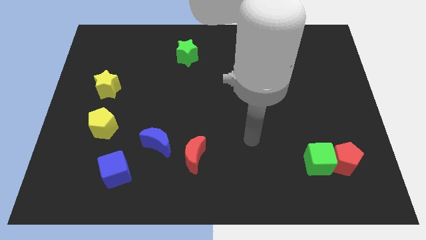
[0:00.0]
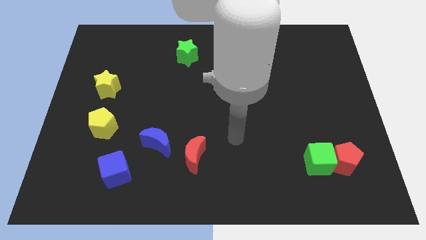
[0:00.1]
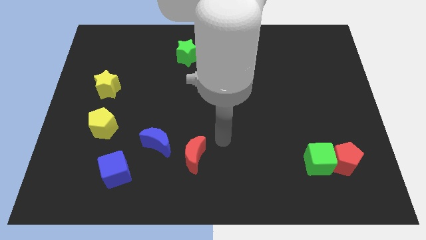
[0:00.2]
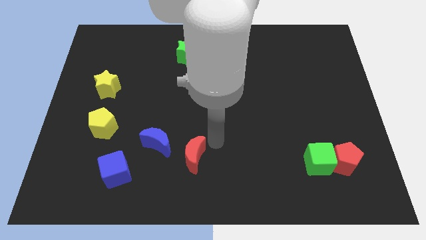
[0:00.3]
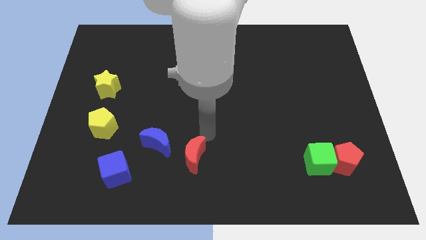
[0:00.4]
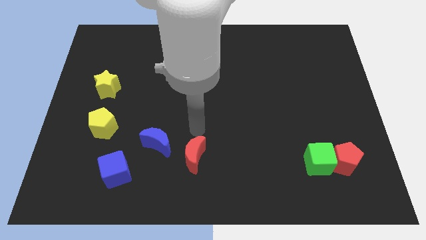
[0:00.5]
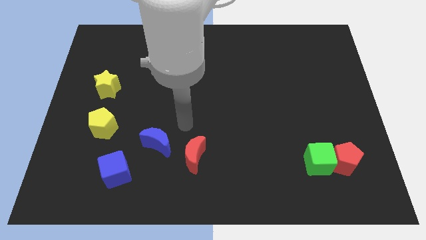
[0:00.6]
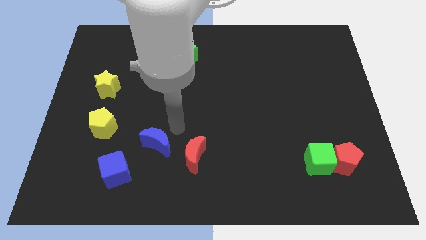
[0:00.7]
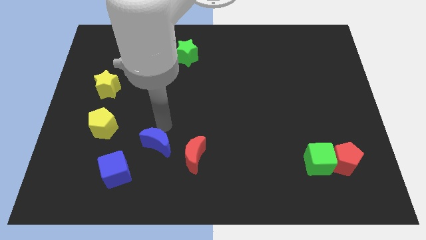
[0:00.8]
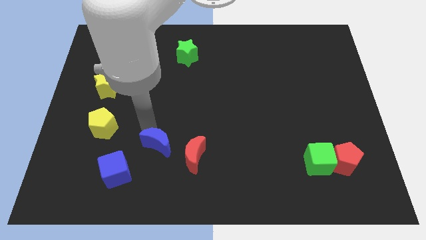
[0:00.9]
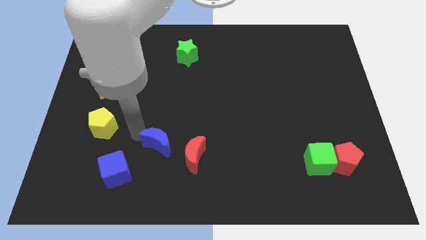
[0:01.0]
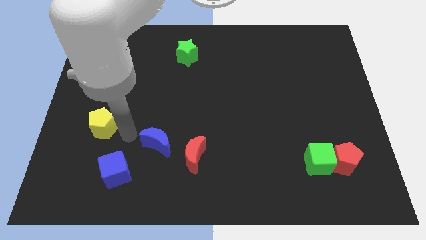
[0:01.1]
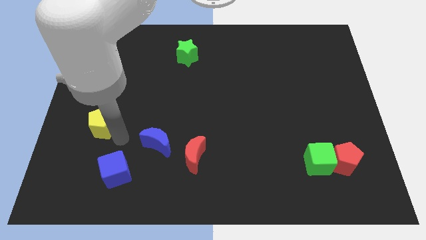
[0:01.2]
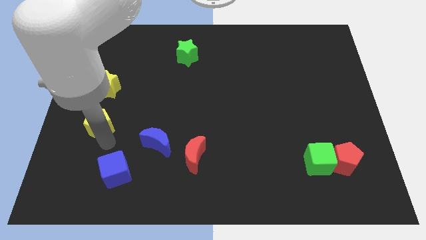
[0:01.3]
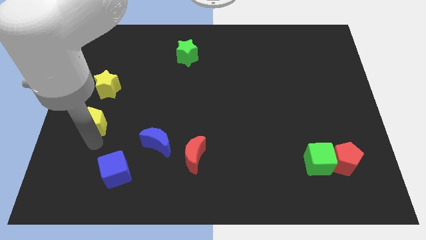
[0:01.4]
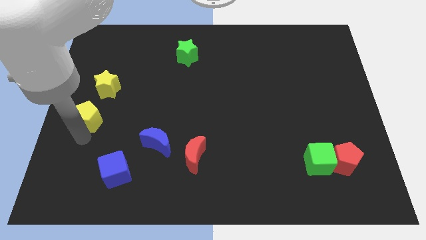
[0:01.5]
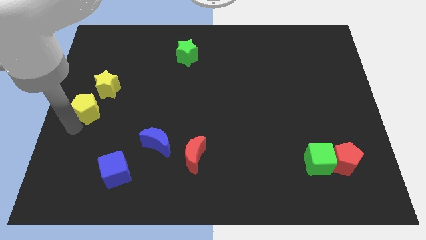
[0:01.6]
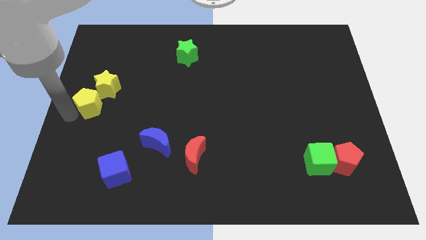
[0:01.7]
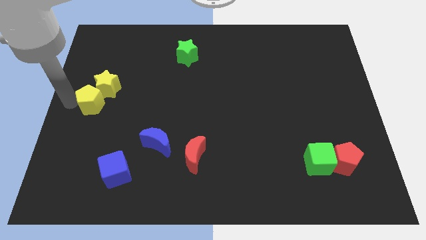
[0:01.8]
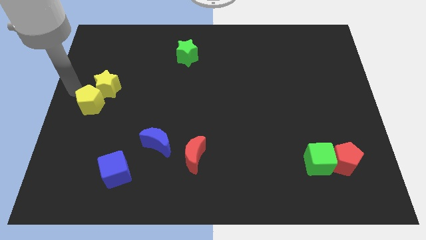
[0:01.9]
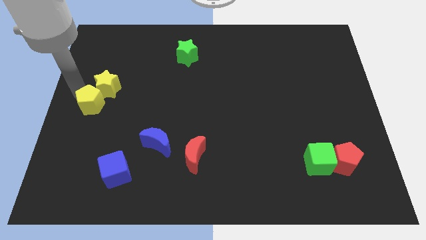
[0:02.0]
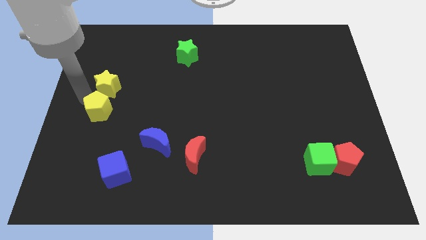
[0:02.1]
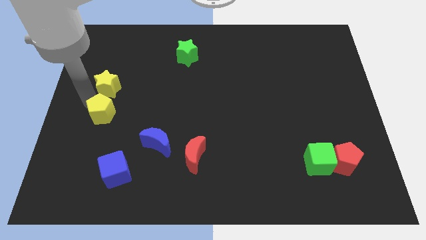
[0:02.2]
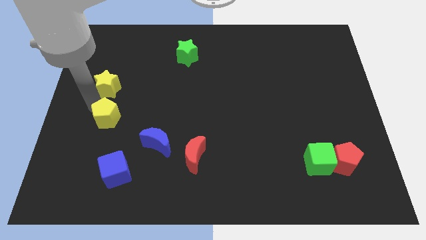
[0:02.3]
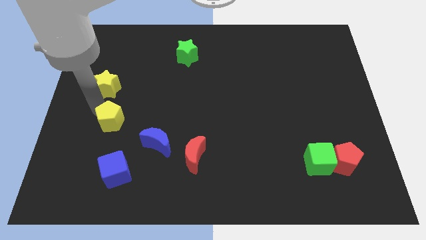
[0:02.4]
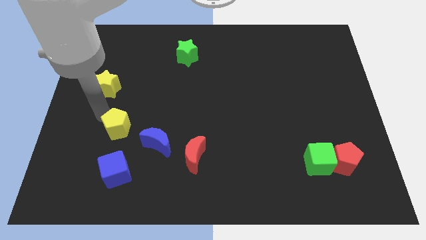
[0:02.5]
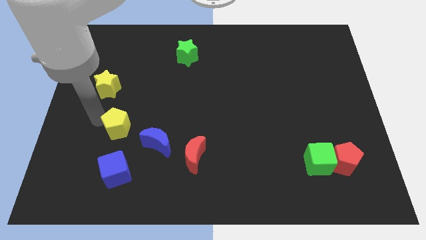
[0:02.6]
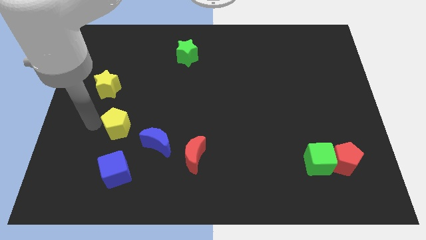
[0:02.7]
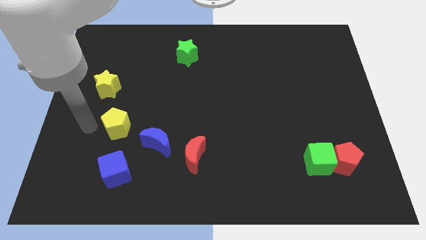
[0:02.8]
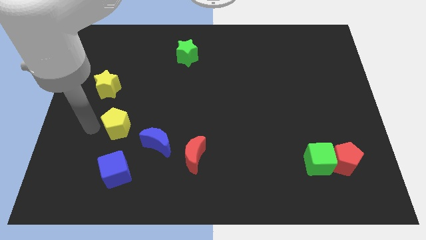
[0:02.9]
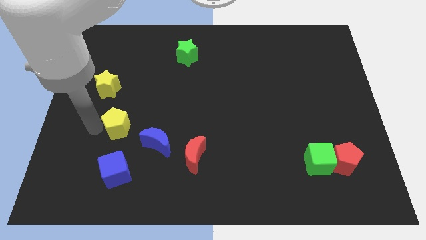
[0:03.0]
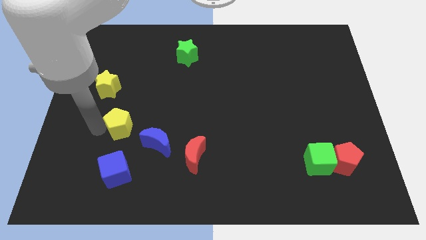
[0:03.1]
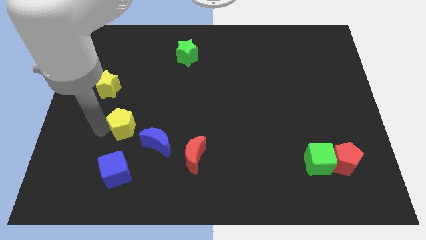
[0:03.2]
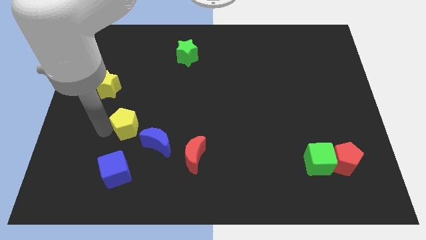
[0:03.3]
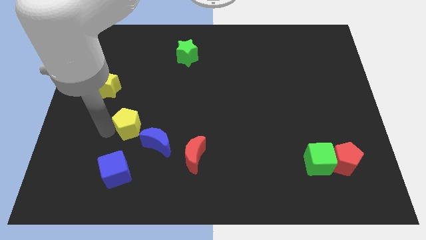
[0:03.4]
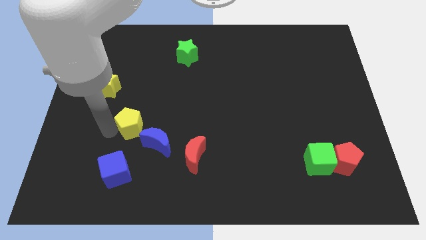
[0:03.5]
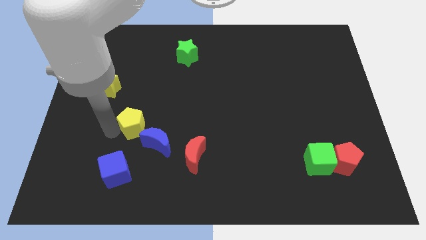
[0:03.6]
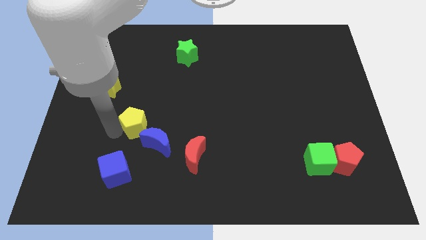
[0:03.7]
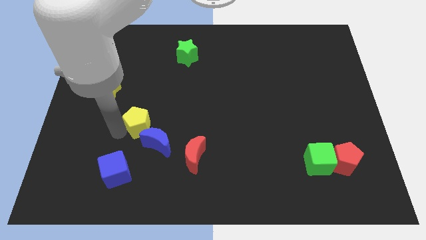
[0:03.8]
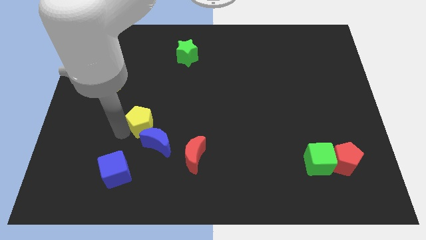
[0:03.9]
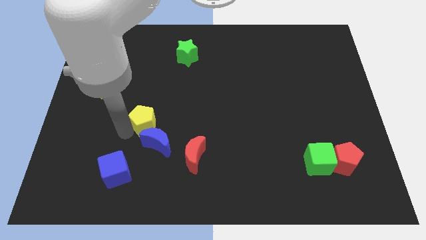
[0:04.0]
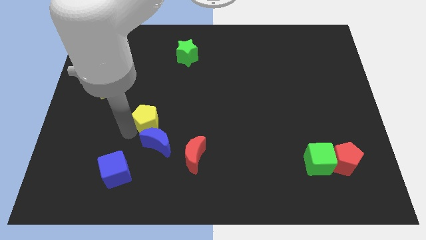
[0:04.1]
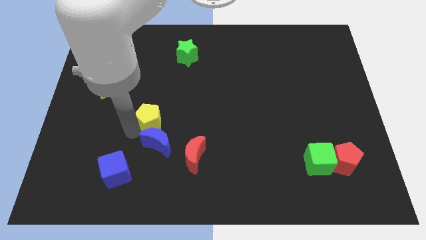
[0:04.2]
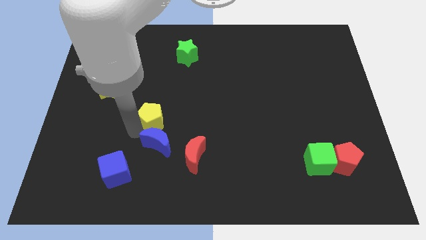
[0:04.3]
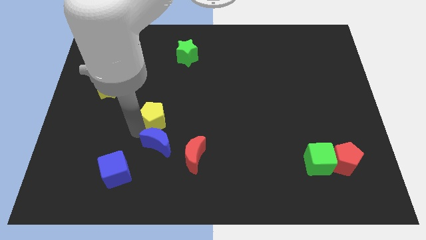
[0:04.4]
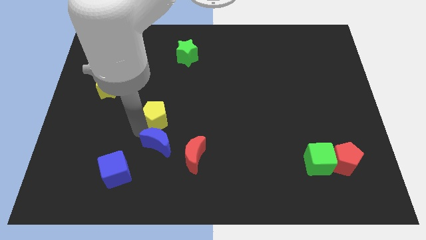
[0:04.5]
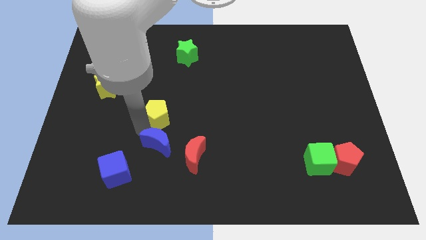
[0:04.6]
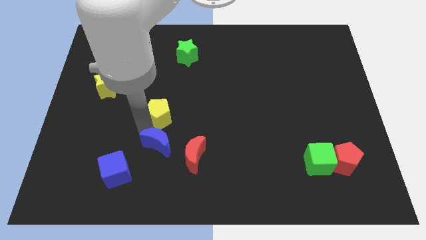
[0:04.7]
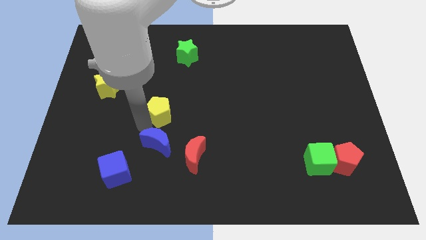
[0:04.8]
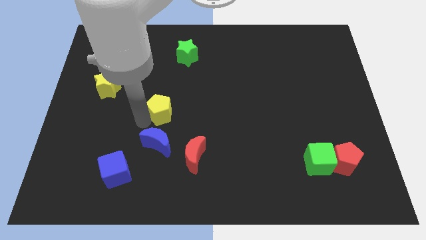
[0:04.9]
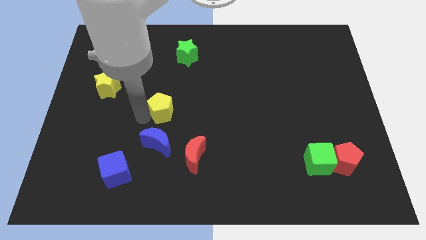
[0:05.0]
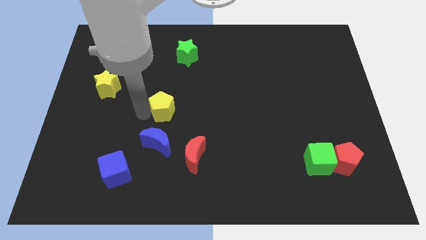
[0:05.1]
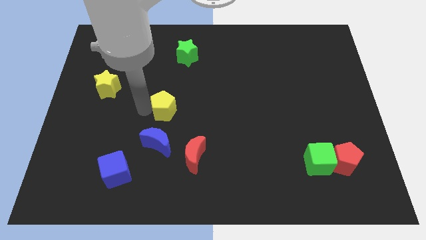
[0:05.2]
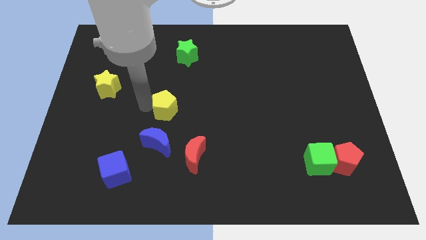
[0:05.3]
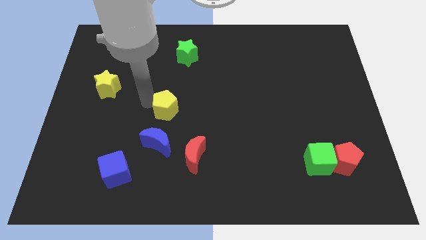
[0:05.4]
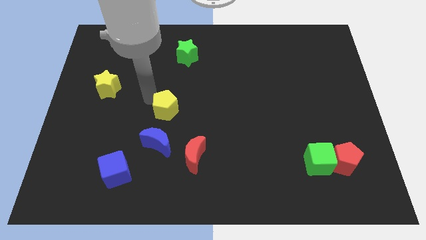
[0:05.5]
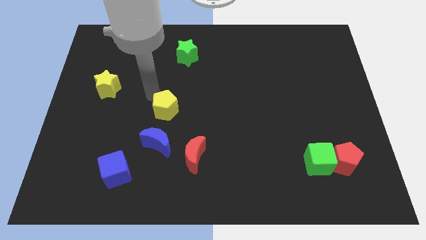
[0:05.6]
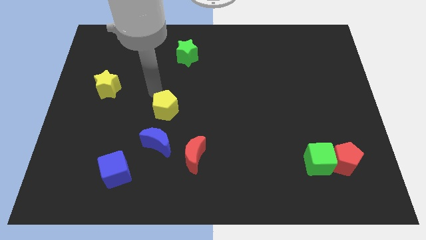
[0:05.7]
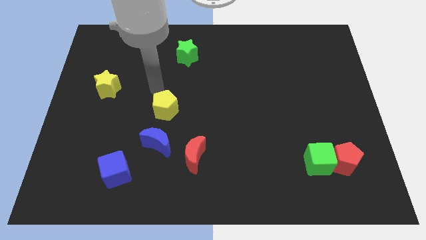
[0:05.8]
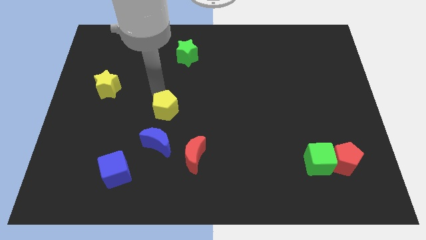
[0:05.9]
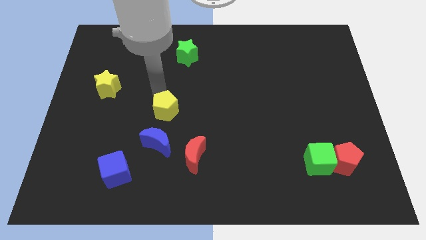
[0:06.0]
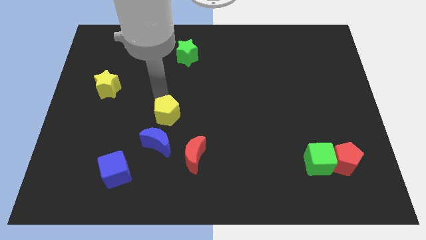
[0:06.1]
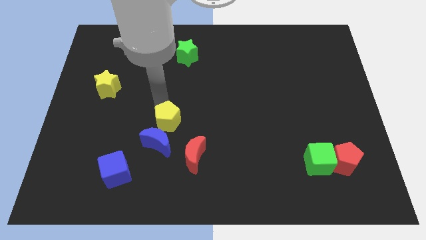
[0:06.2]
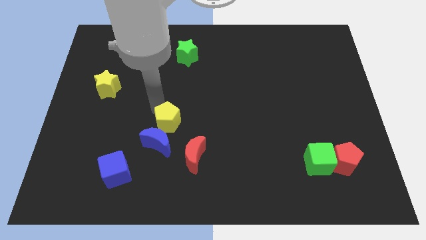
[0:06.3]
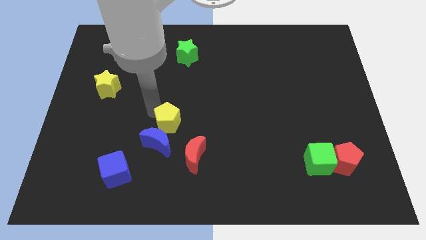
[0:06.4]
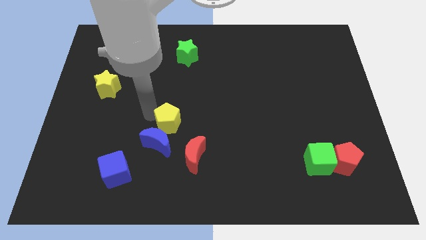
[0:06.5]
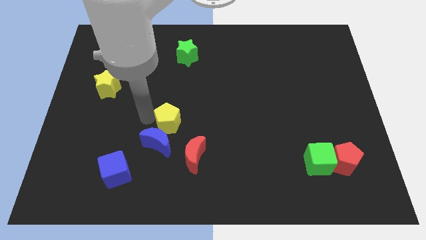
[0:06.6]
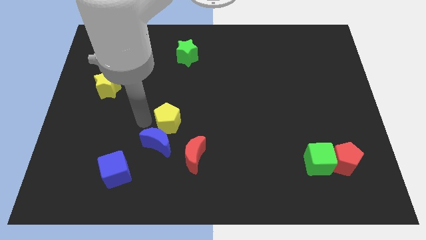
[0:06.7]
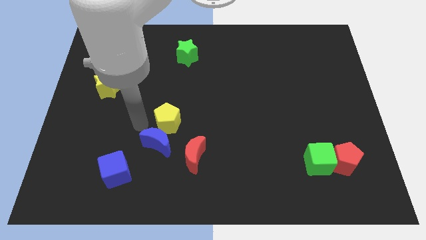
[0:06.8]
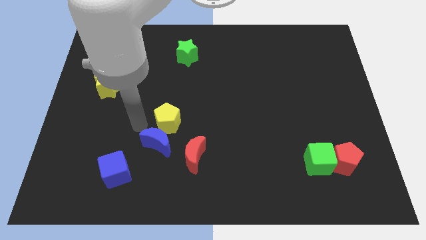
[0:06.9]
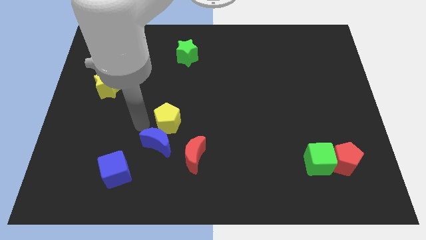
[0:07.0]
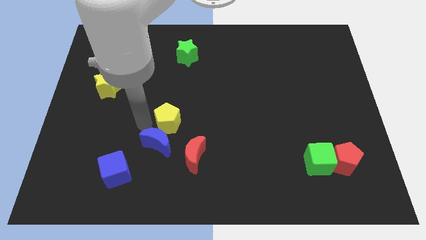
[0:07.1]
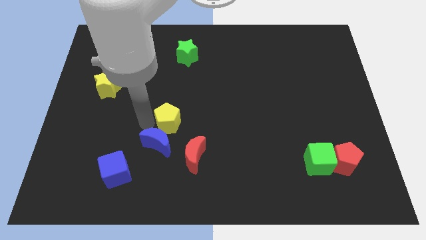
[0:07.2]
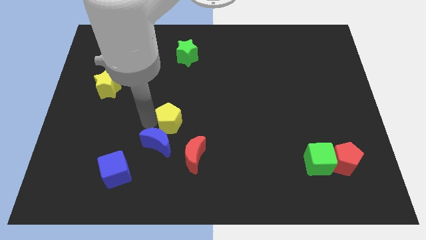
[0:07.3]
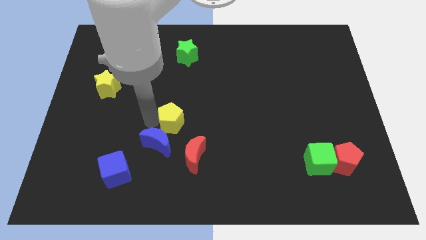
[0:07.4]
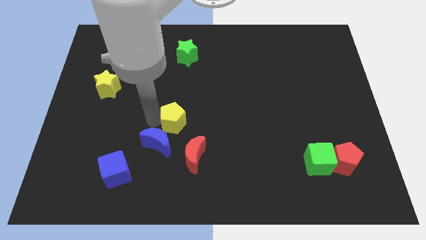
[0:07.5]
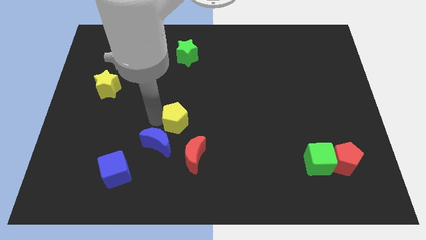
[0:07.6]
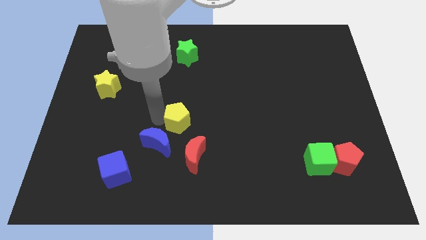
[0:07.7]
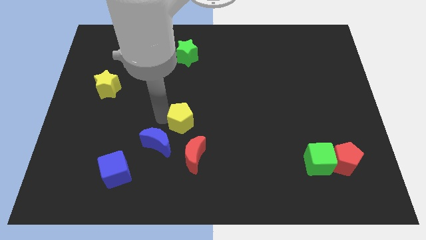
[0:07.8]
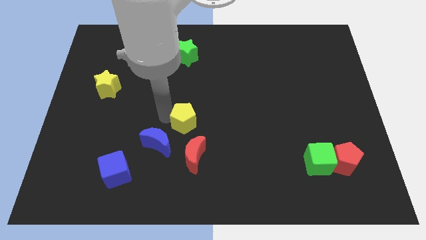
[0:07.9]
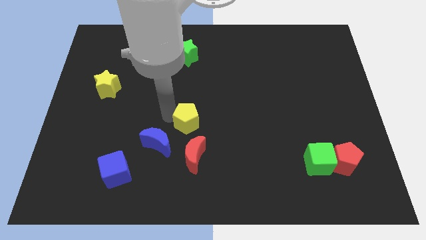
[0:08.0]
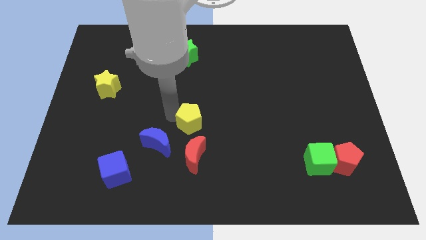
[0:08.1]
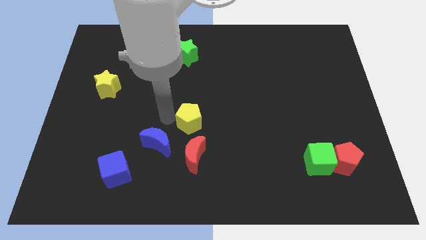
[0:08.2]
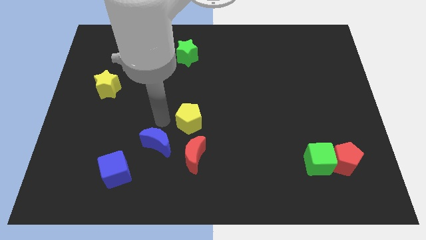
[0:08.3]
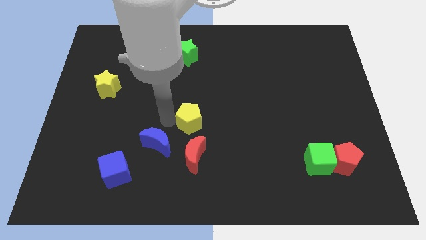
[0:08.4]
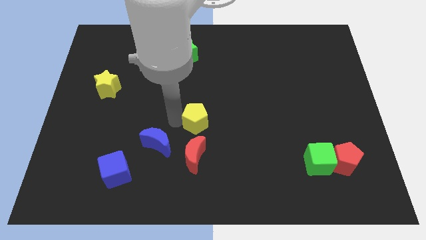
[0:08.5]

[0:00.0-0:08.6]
move the yellow pentagon right
